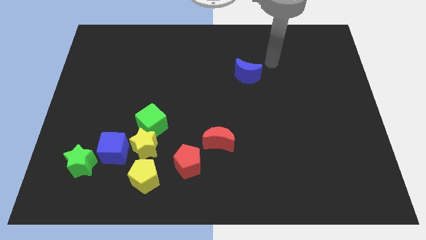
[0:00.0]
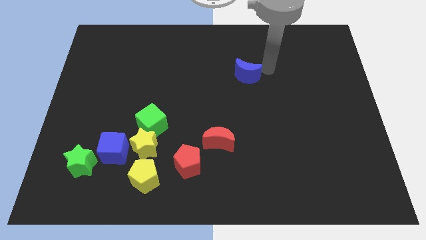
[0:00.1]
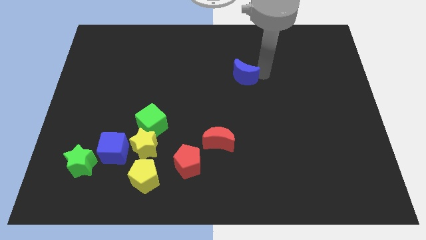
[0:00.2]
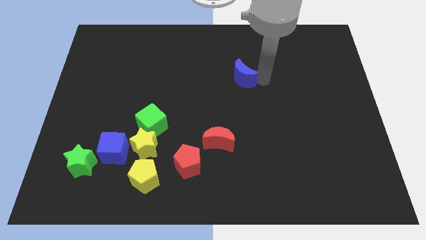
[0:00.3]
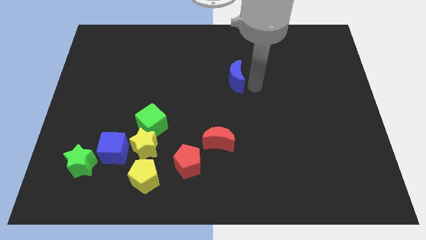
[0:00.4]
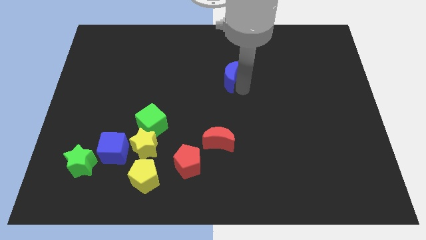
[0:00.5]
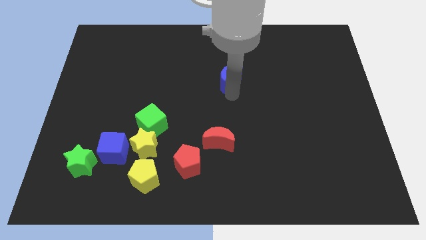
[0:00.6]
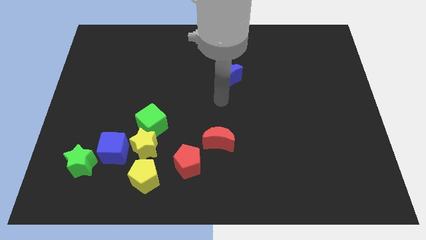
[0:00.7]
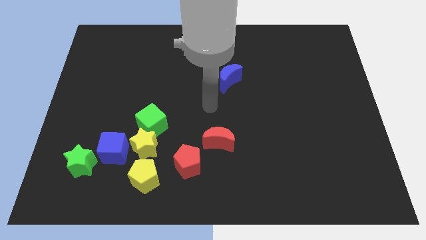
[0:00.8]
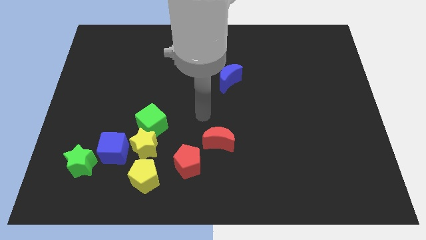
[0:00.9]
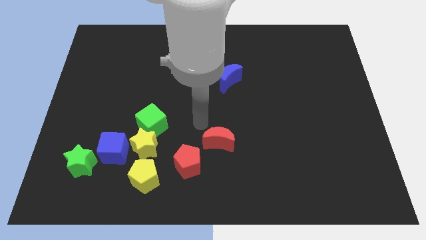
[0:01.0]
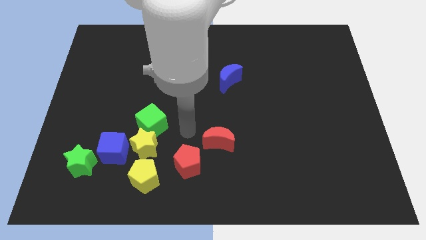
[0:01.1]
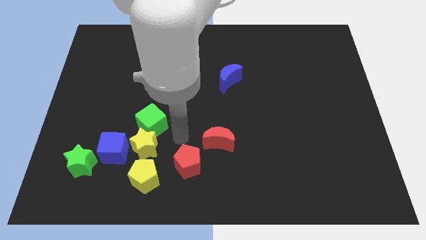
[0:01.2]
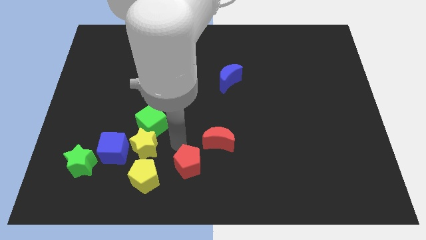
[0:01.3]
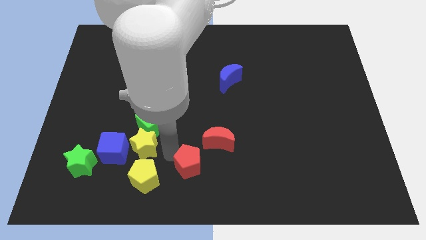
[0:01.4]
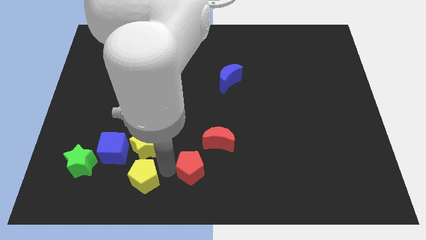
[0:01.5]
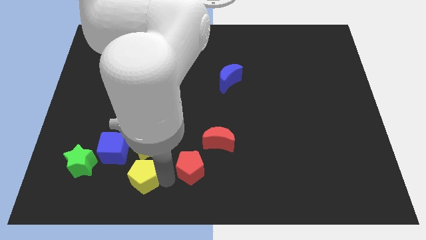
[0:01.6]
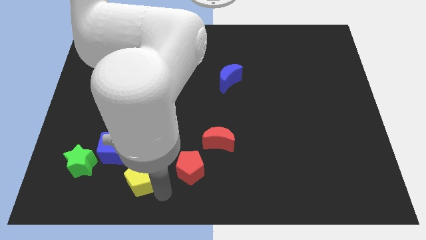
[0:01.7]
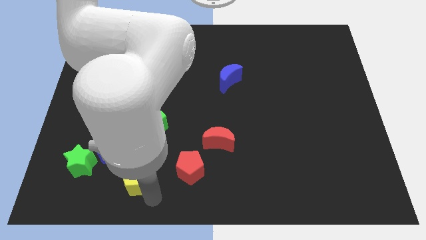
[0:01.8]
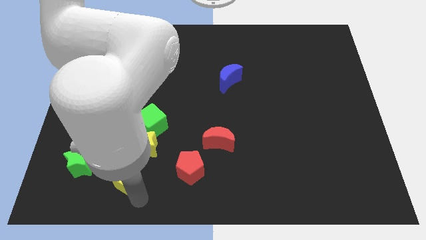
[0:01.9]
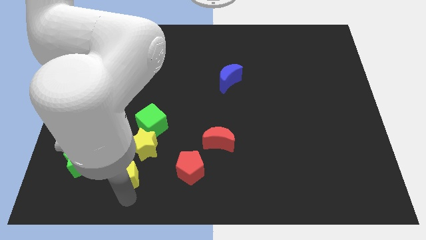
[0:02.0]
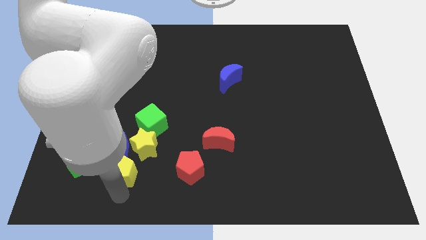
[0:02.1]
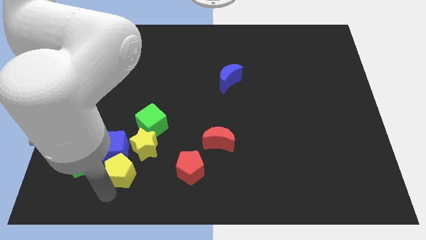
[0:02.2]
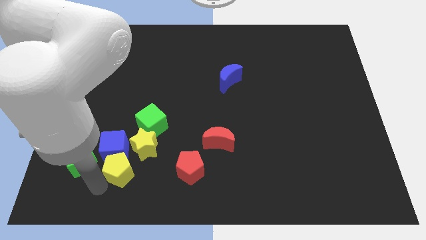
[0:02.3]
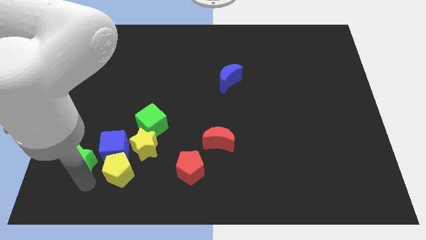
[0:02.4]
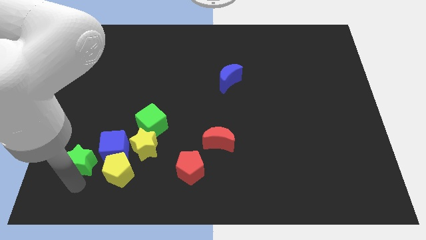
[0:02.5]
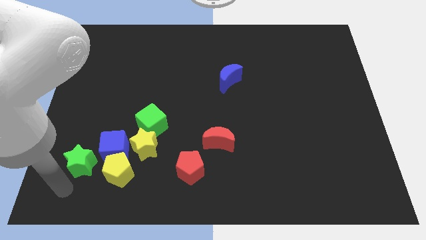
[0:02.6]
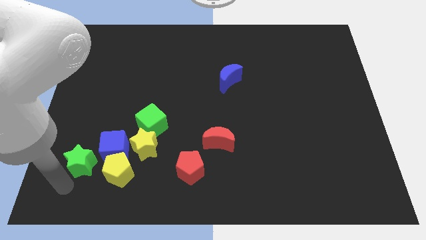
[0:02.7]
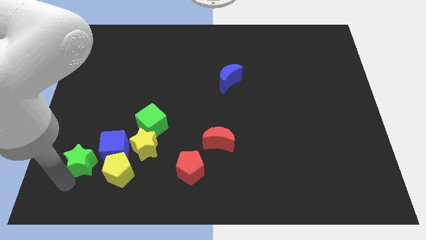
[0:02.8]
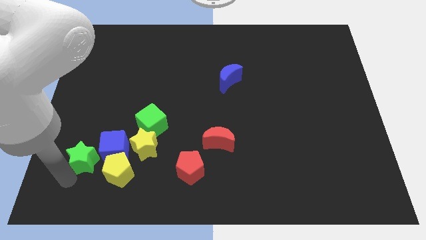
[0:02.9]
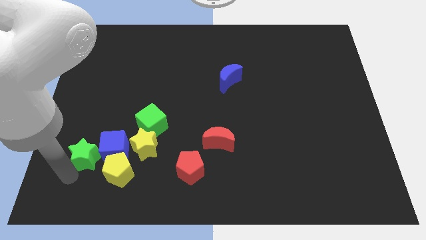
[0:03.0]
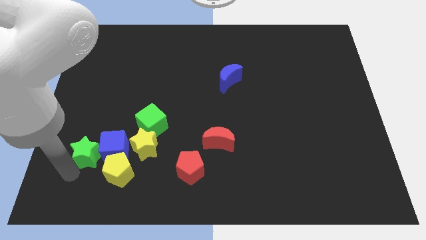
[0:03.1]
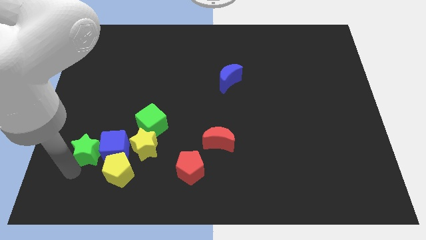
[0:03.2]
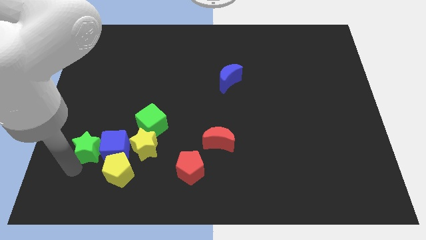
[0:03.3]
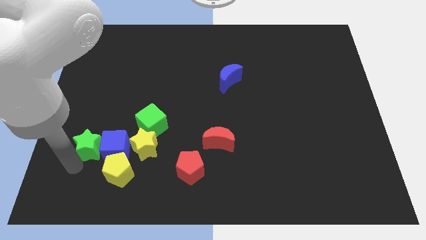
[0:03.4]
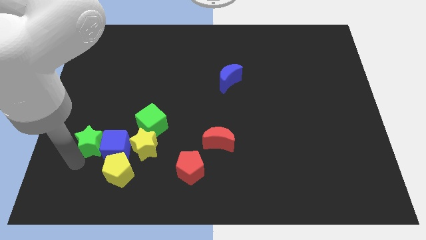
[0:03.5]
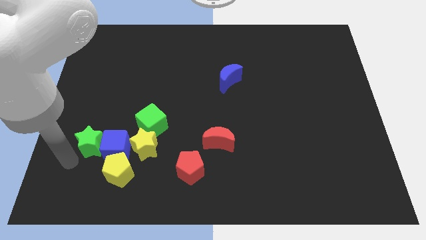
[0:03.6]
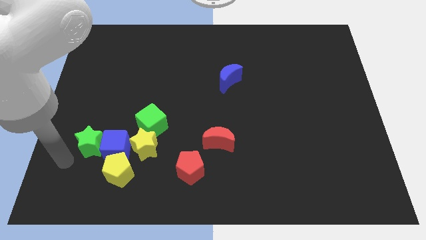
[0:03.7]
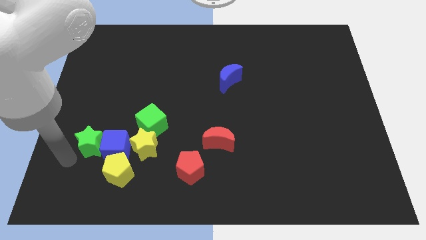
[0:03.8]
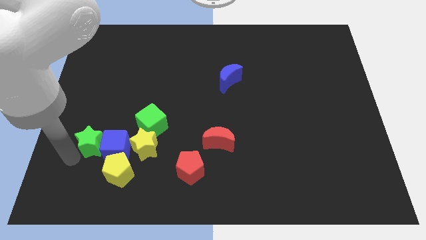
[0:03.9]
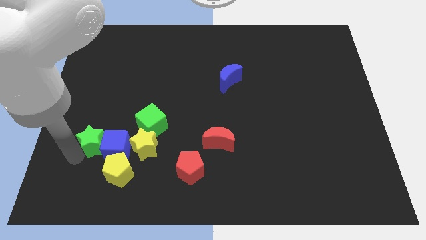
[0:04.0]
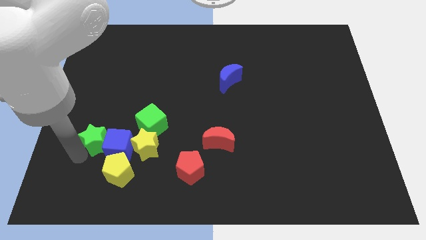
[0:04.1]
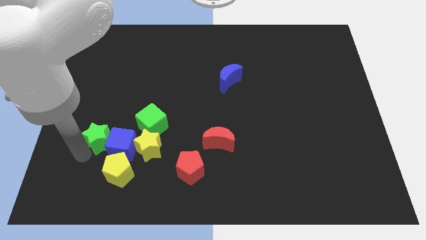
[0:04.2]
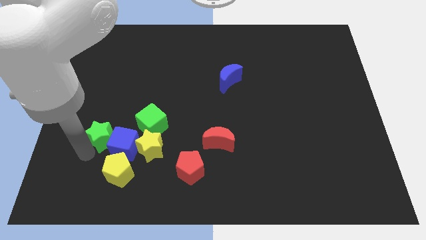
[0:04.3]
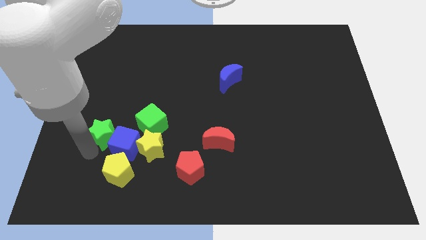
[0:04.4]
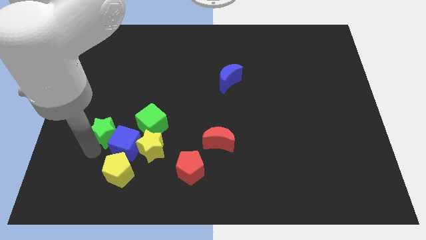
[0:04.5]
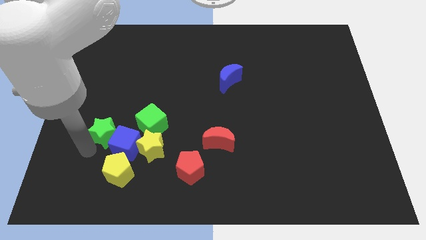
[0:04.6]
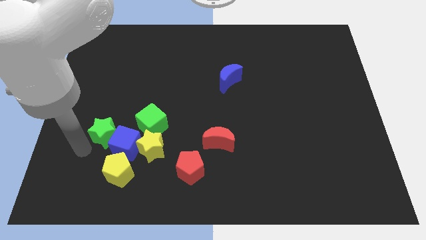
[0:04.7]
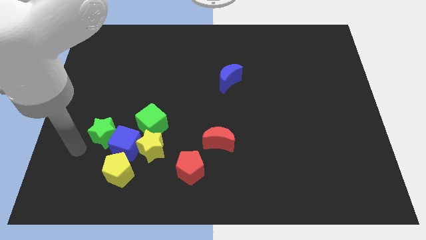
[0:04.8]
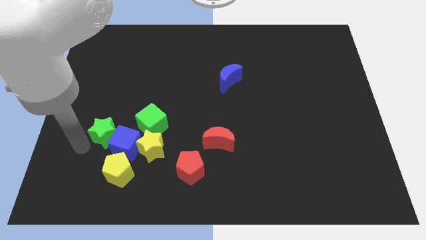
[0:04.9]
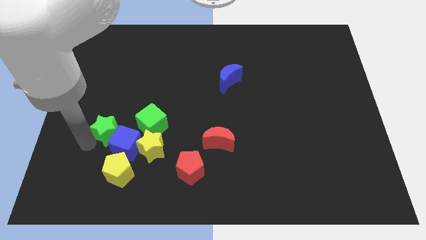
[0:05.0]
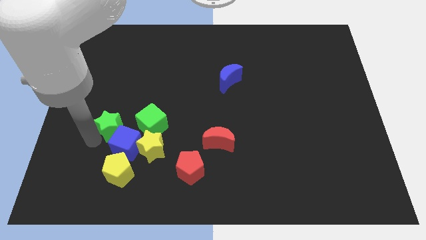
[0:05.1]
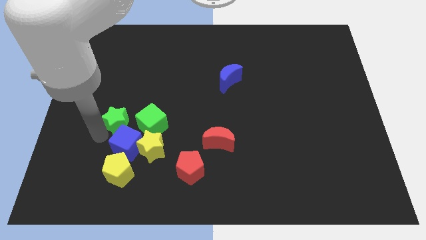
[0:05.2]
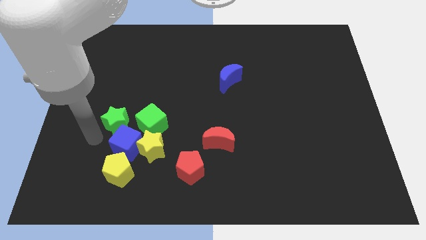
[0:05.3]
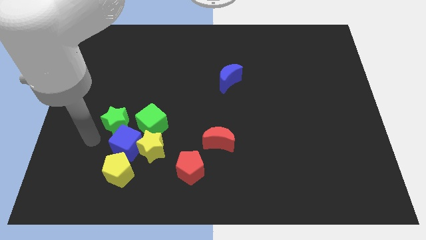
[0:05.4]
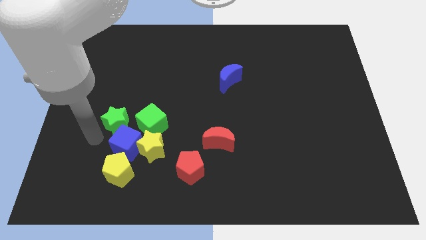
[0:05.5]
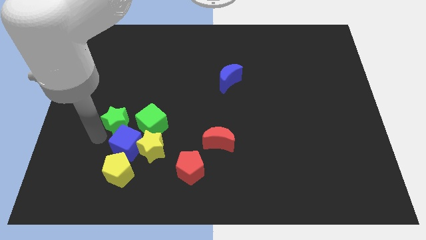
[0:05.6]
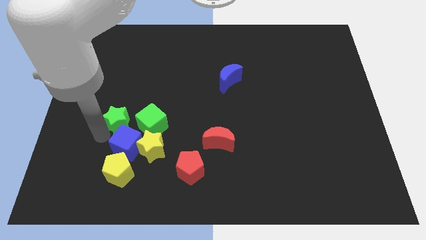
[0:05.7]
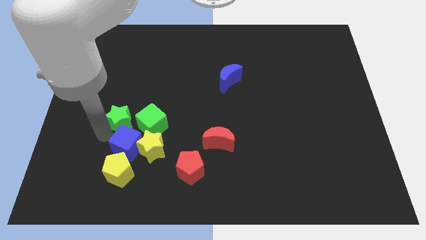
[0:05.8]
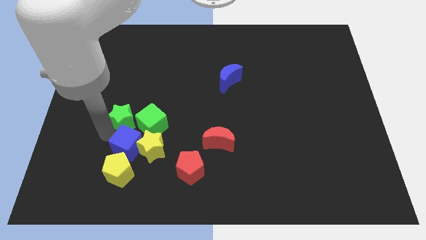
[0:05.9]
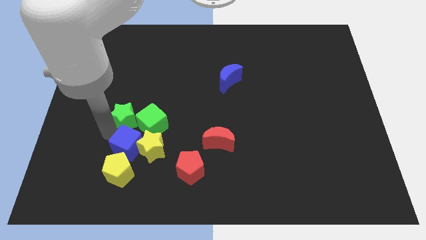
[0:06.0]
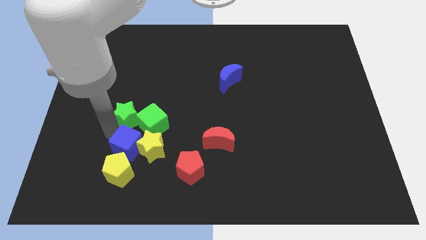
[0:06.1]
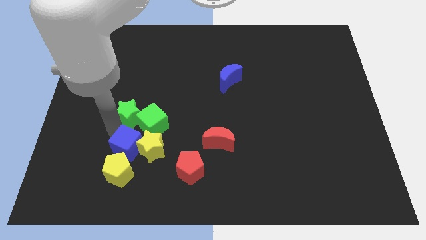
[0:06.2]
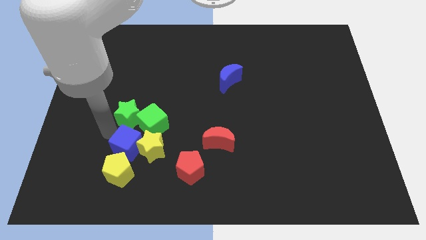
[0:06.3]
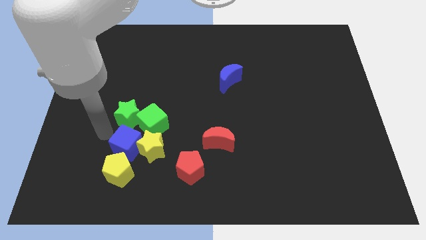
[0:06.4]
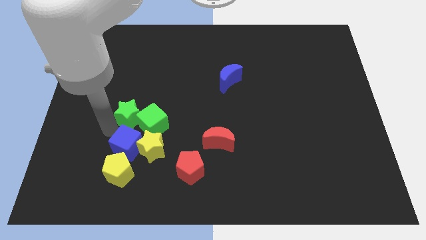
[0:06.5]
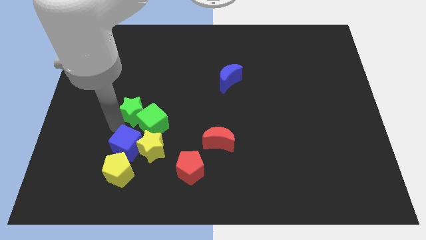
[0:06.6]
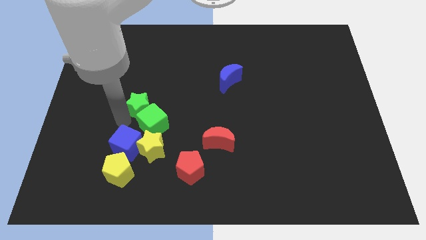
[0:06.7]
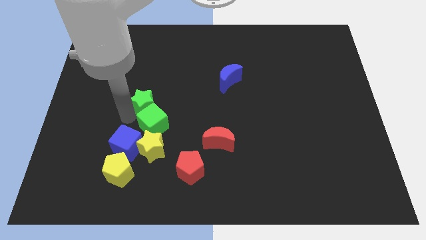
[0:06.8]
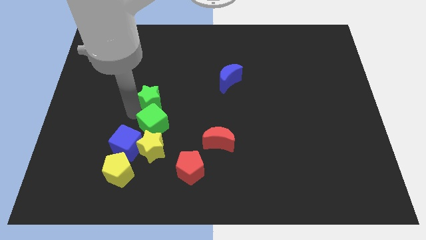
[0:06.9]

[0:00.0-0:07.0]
slide the green star up and to the right diagonally

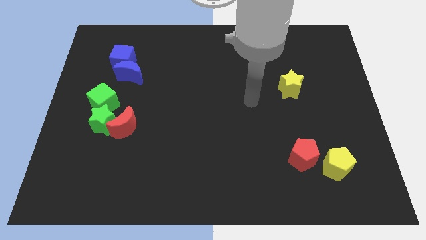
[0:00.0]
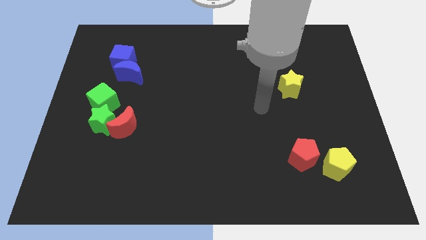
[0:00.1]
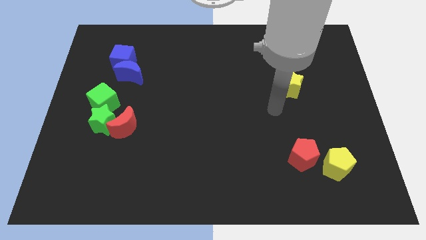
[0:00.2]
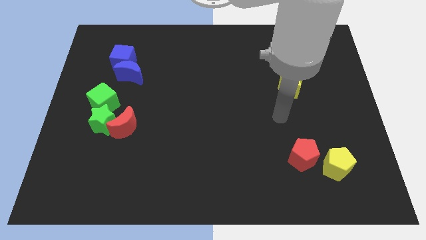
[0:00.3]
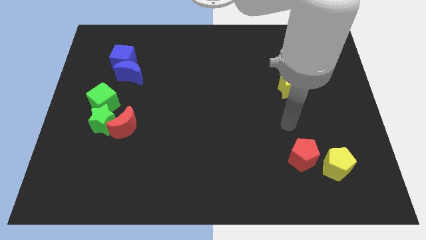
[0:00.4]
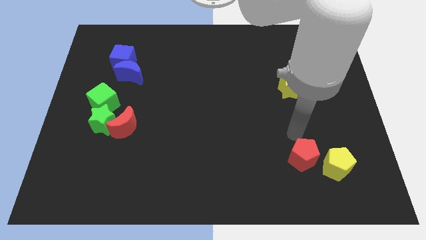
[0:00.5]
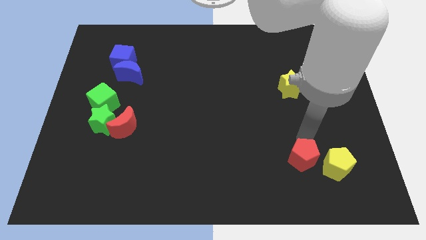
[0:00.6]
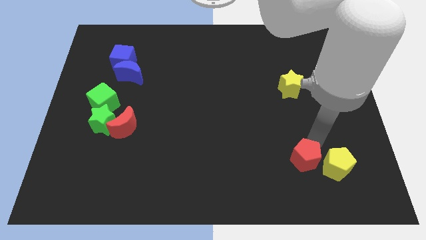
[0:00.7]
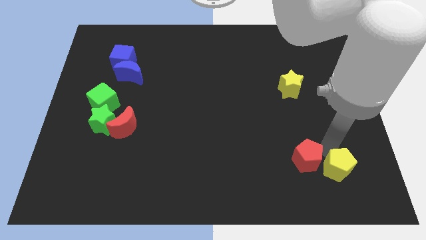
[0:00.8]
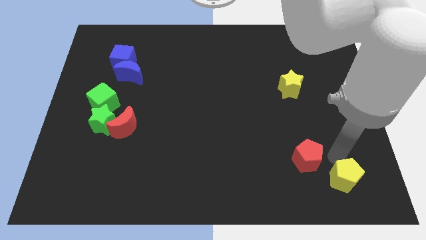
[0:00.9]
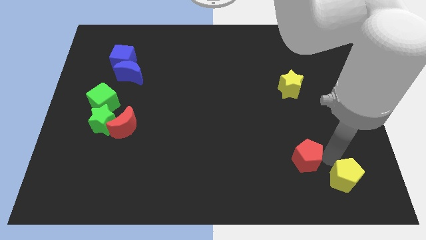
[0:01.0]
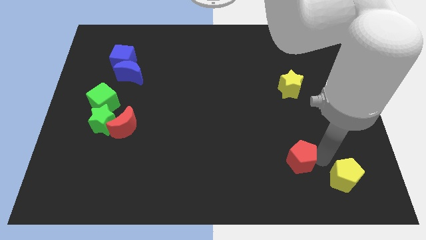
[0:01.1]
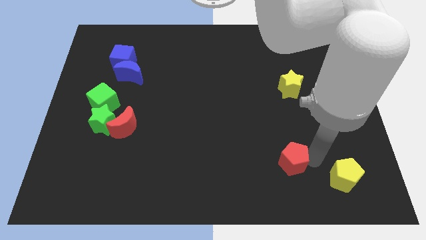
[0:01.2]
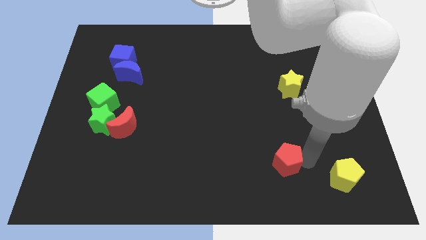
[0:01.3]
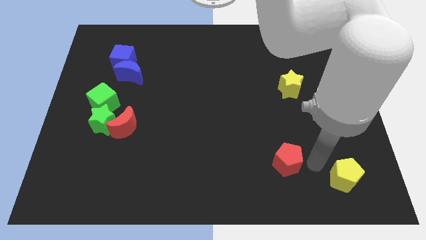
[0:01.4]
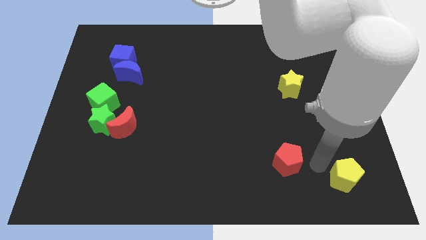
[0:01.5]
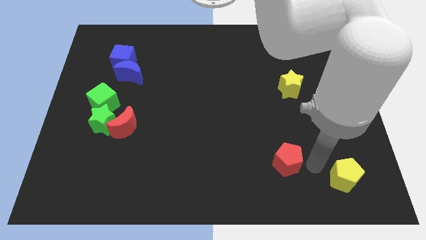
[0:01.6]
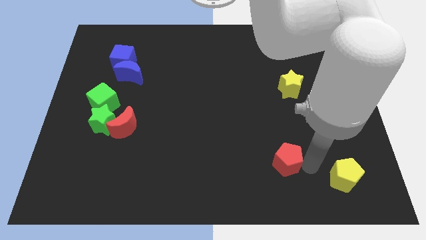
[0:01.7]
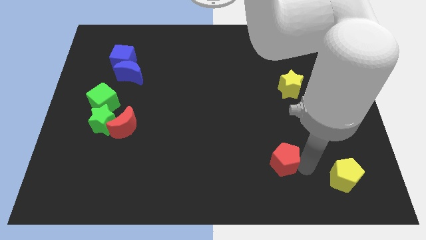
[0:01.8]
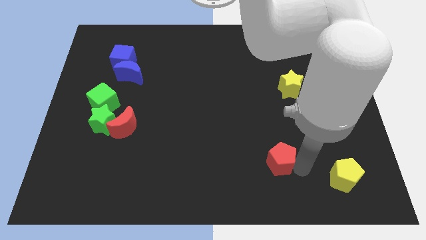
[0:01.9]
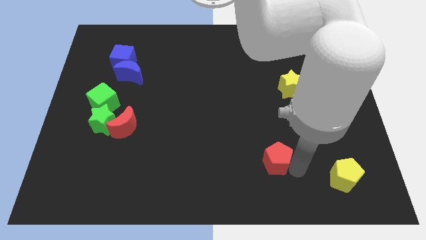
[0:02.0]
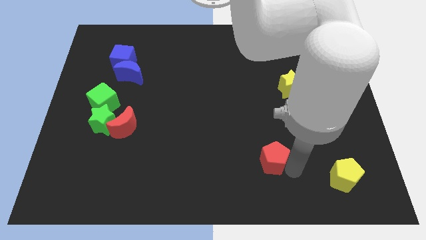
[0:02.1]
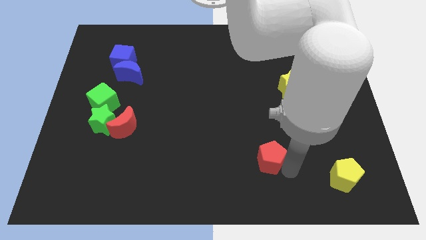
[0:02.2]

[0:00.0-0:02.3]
move the red pentagon a little bit left
